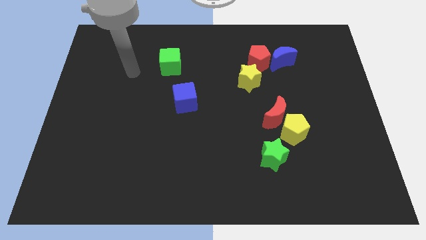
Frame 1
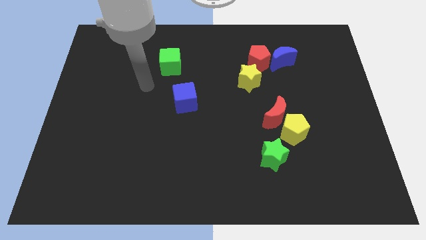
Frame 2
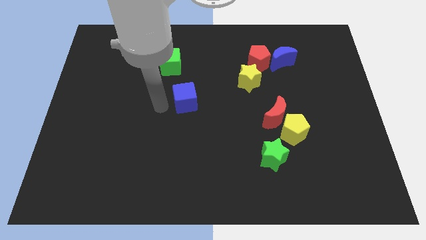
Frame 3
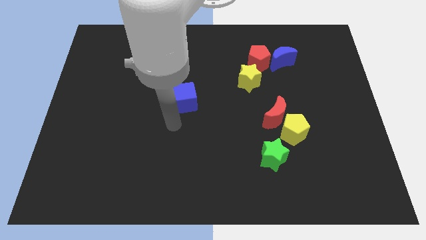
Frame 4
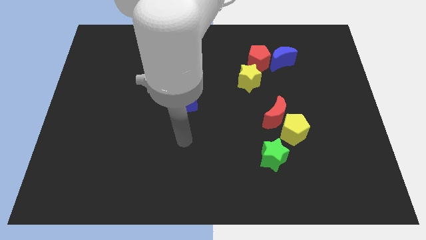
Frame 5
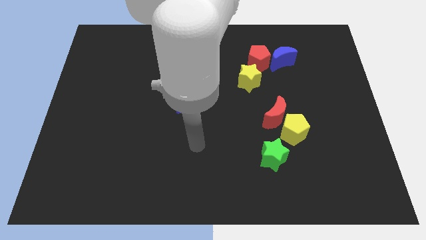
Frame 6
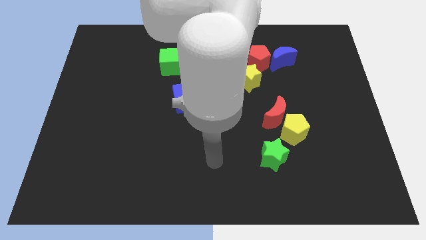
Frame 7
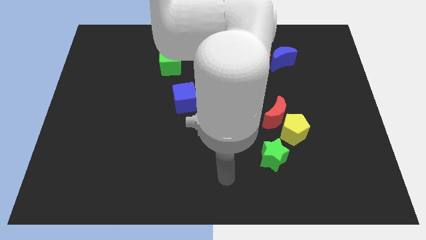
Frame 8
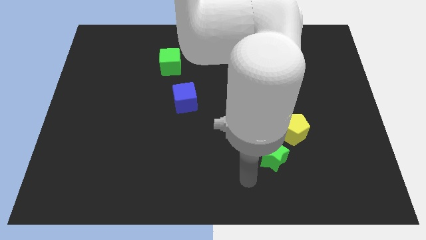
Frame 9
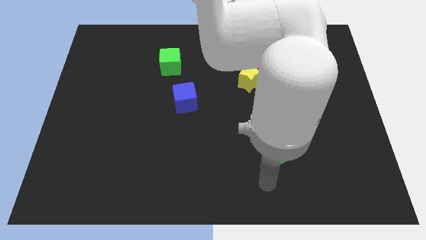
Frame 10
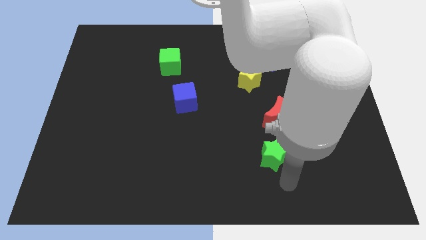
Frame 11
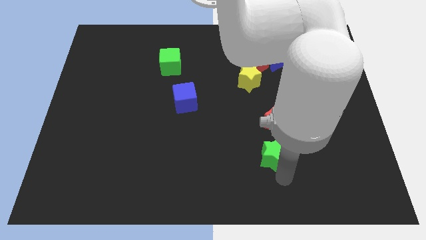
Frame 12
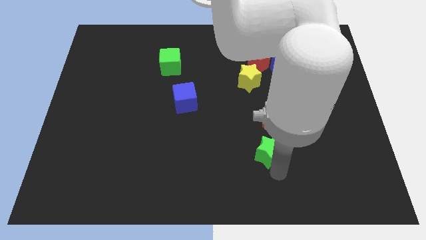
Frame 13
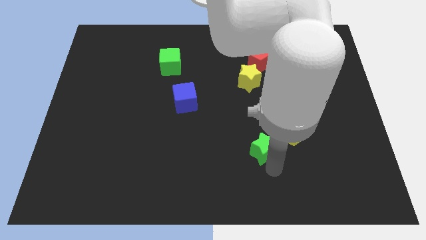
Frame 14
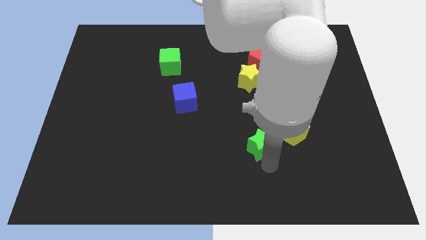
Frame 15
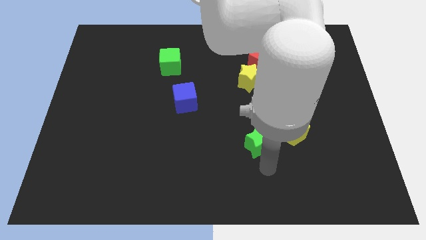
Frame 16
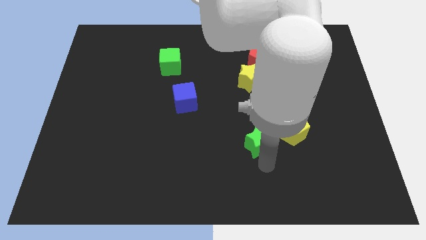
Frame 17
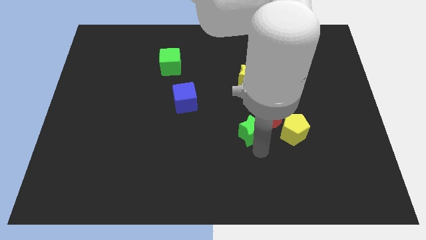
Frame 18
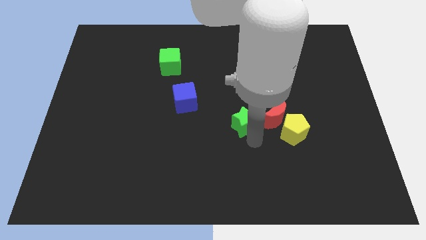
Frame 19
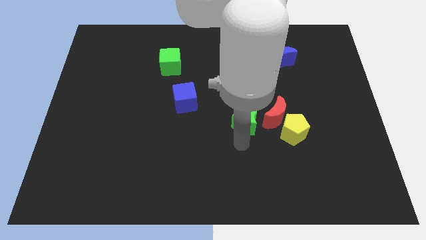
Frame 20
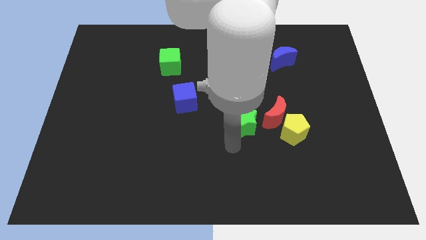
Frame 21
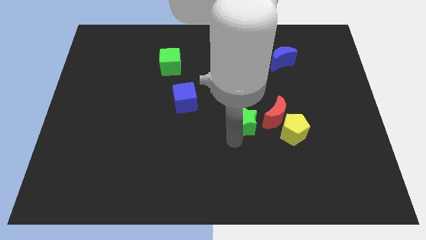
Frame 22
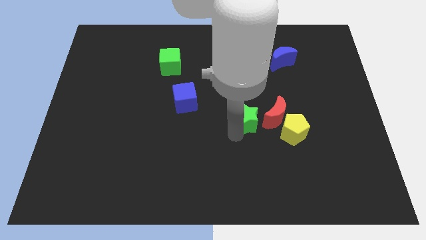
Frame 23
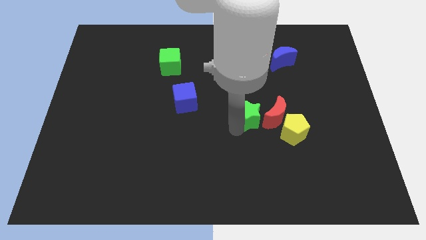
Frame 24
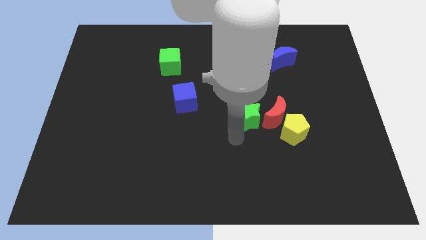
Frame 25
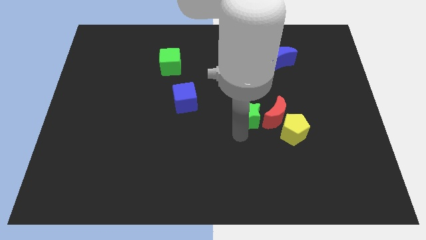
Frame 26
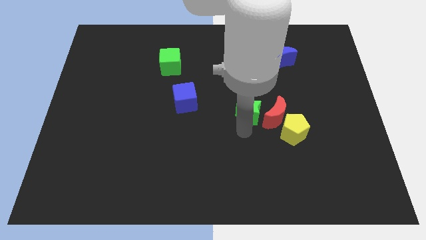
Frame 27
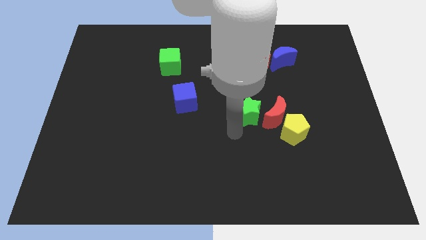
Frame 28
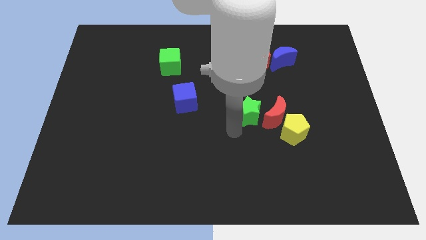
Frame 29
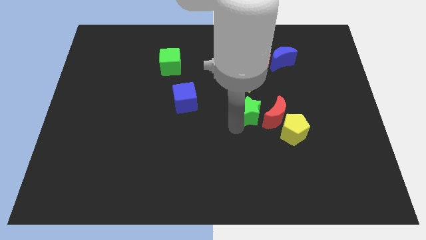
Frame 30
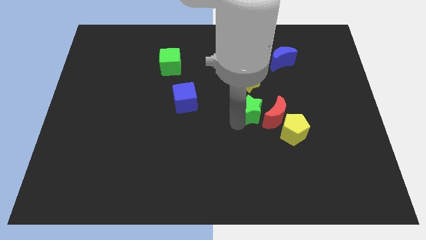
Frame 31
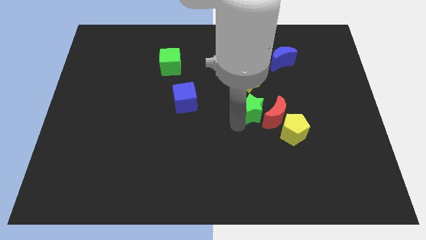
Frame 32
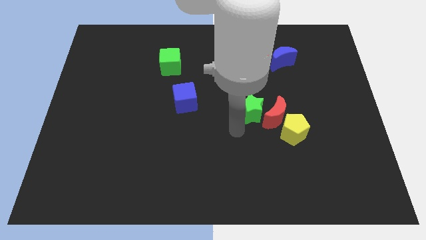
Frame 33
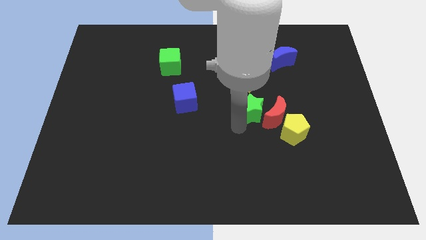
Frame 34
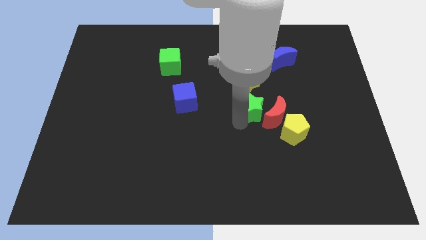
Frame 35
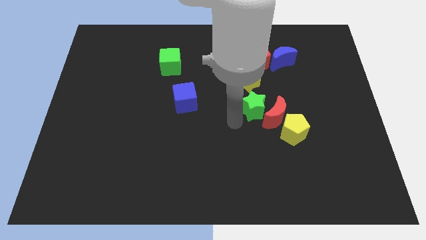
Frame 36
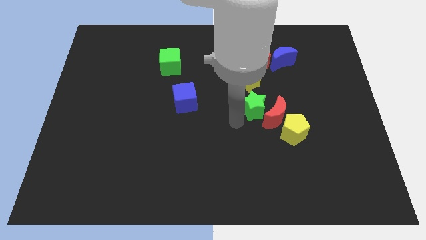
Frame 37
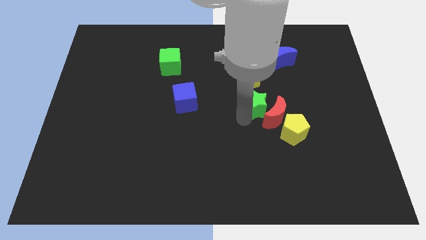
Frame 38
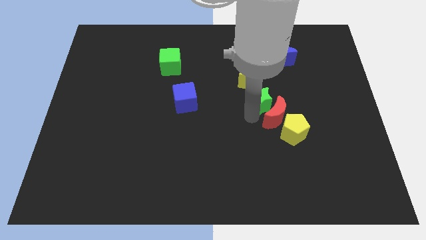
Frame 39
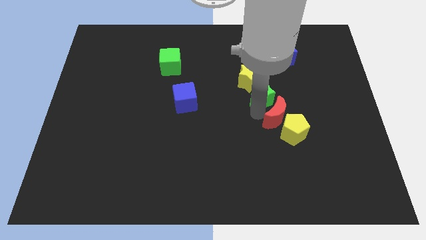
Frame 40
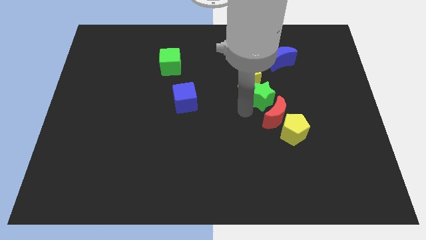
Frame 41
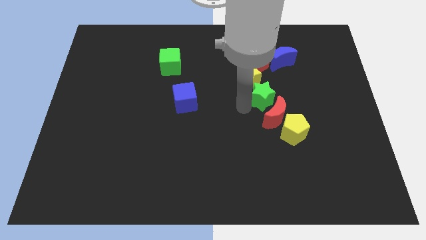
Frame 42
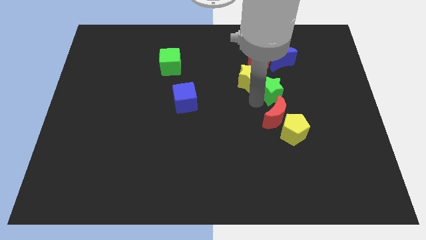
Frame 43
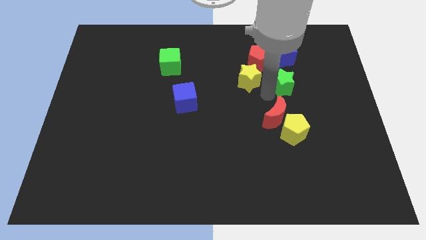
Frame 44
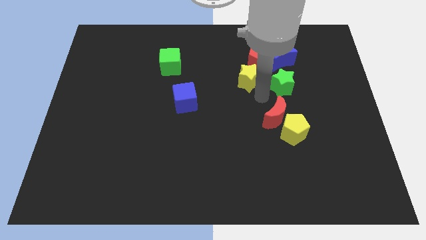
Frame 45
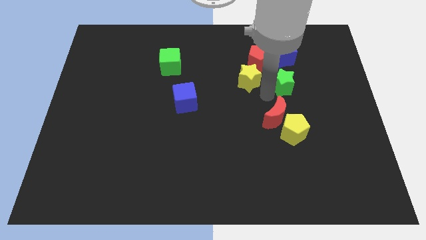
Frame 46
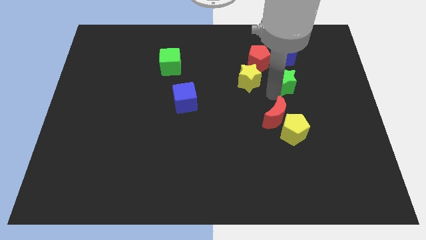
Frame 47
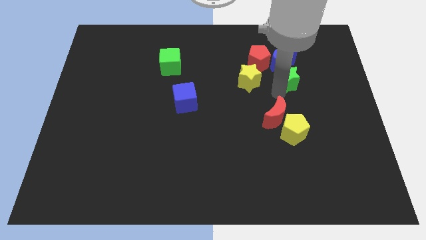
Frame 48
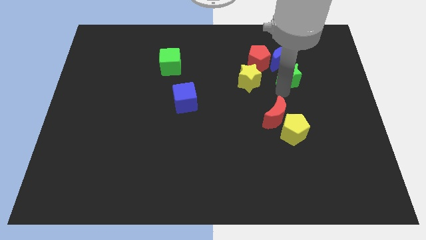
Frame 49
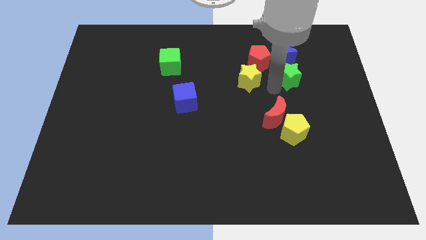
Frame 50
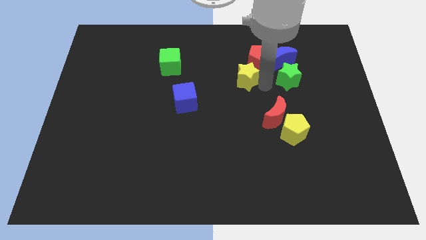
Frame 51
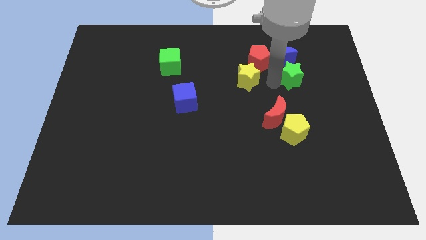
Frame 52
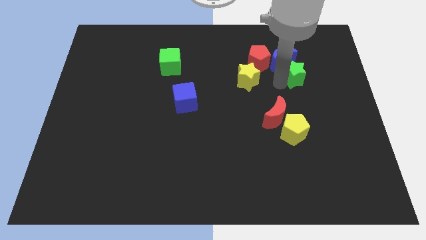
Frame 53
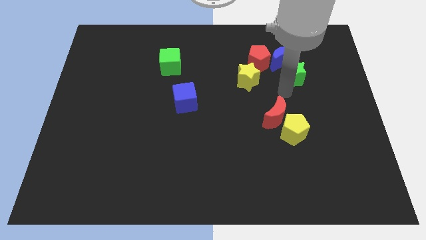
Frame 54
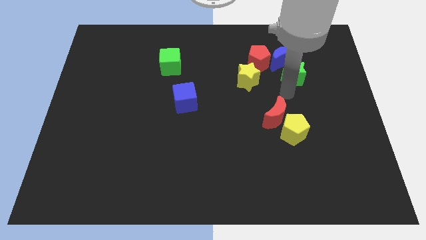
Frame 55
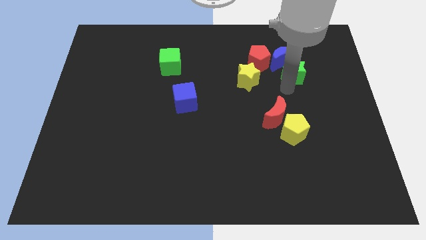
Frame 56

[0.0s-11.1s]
push the green star just right of the red pentagon
